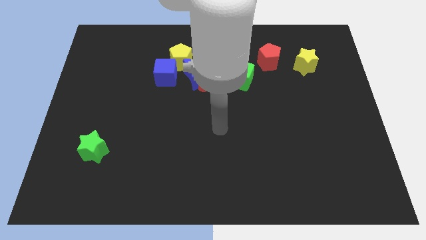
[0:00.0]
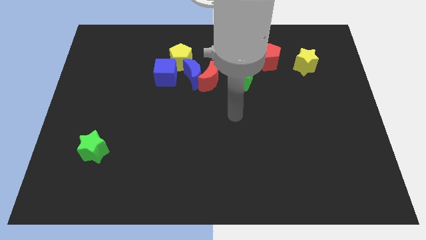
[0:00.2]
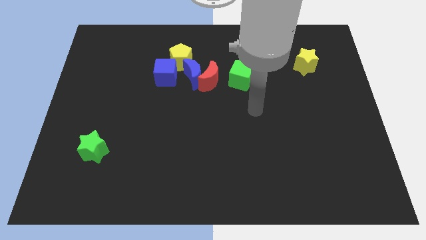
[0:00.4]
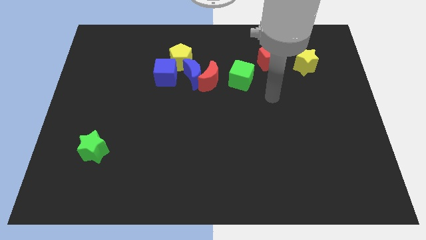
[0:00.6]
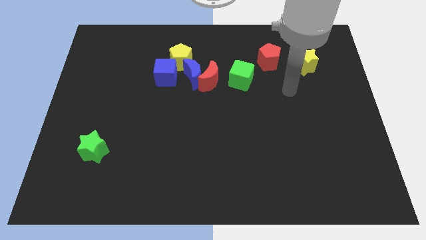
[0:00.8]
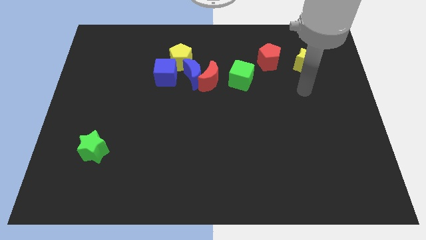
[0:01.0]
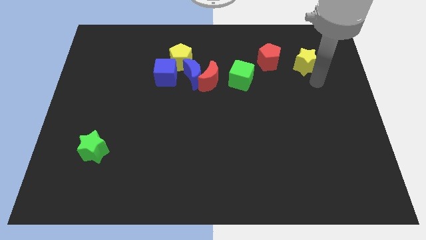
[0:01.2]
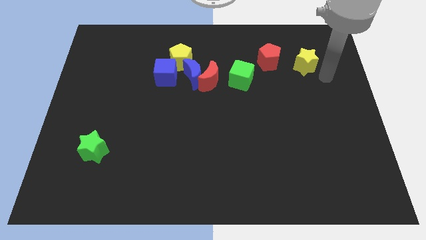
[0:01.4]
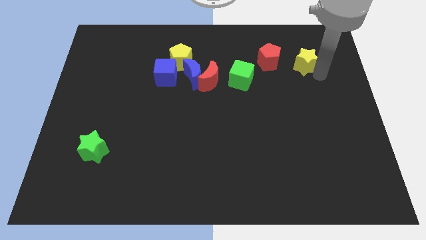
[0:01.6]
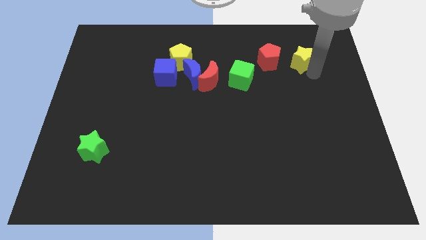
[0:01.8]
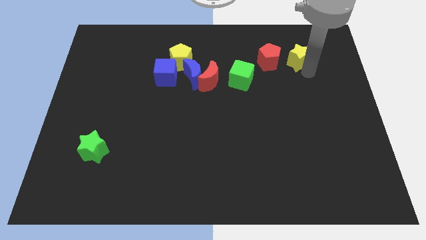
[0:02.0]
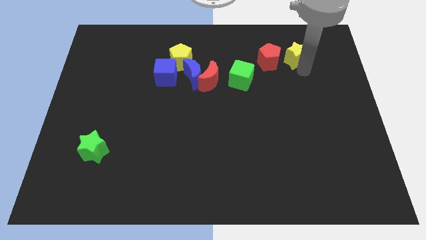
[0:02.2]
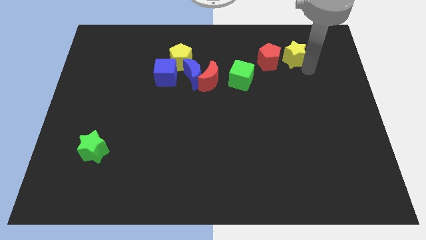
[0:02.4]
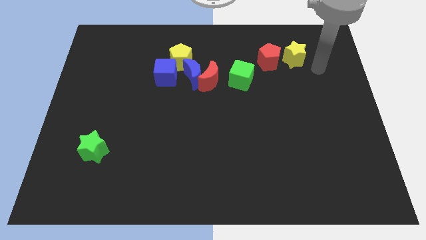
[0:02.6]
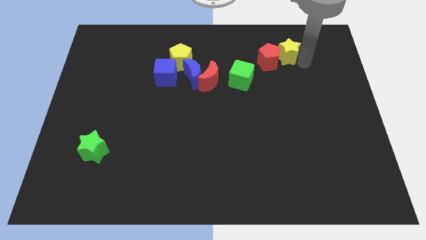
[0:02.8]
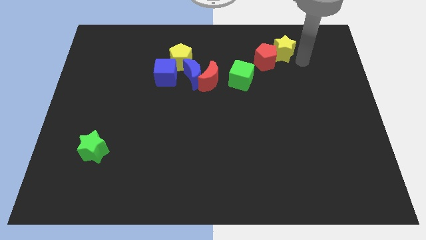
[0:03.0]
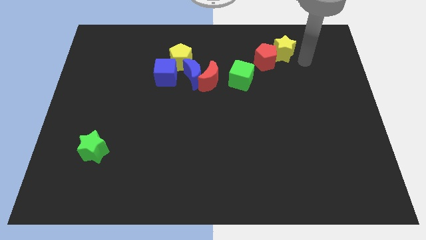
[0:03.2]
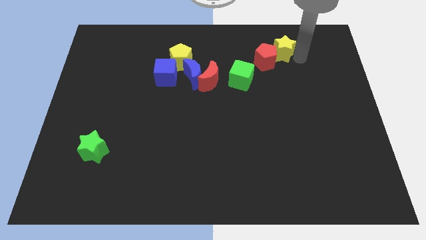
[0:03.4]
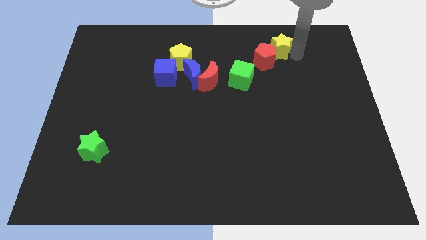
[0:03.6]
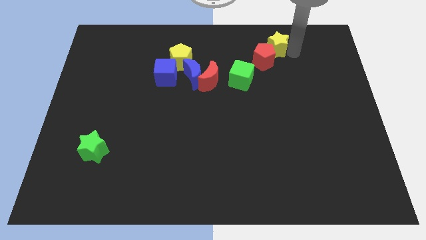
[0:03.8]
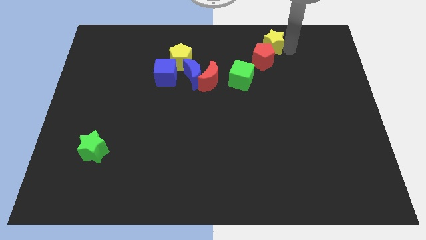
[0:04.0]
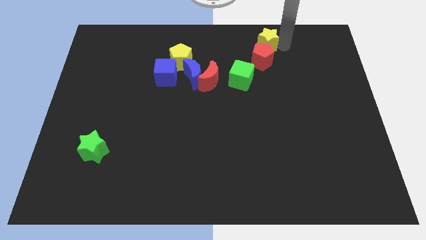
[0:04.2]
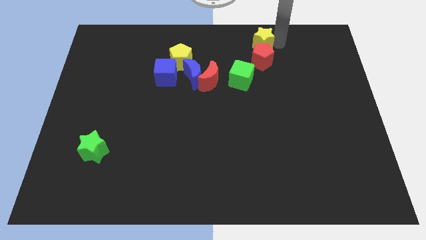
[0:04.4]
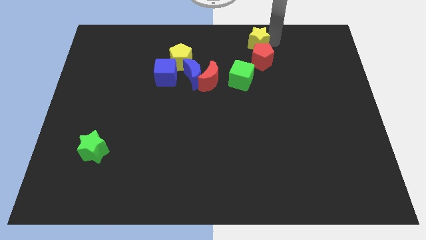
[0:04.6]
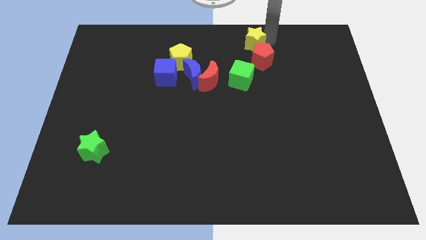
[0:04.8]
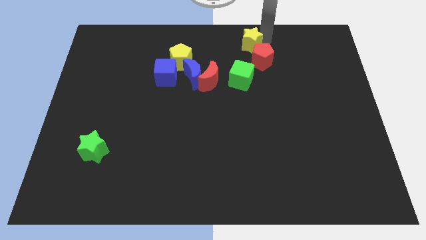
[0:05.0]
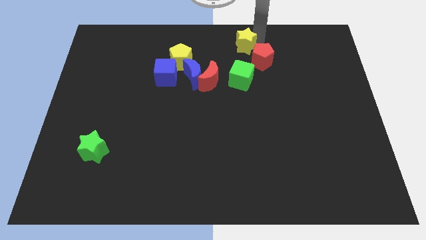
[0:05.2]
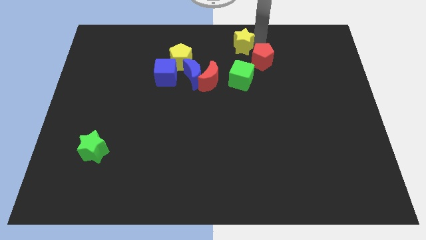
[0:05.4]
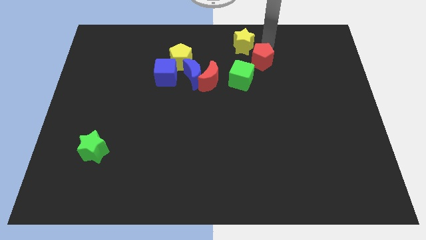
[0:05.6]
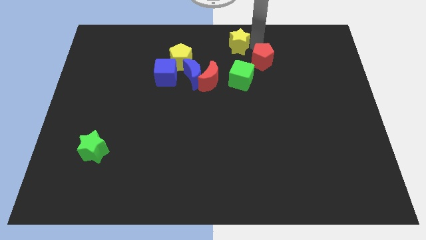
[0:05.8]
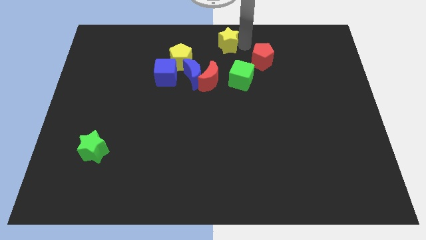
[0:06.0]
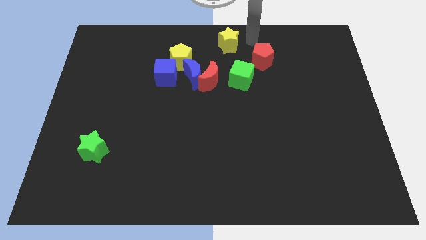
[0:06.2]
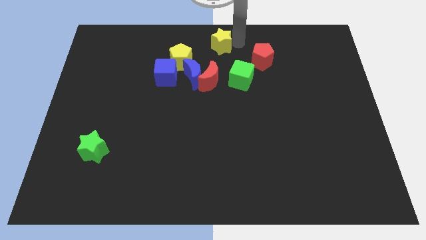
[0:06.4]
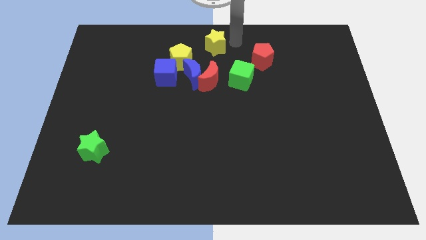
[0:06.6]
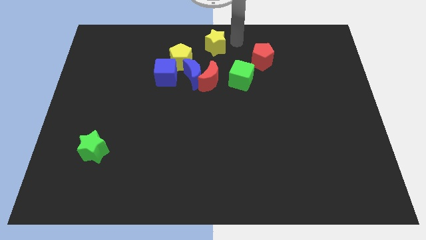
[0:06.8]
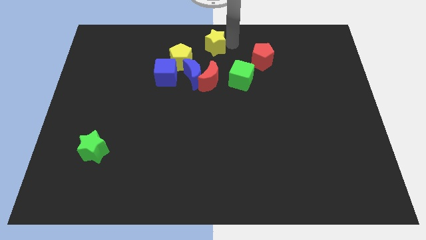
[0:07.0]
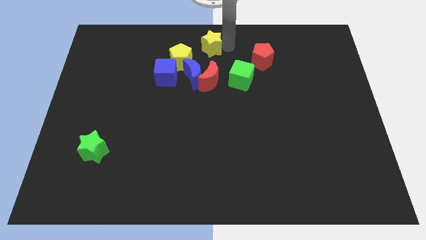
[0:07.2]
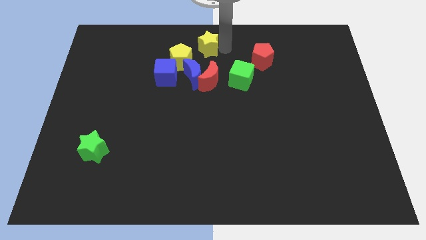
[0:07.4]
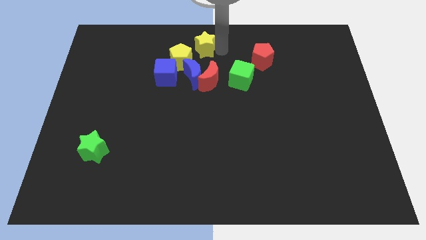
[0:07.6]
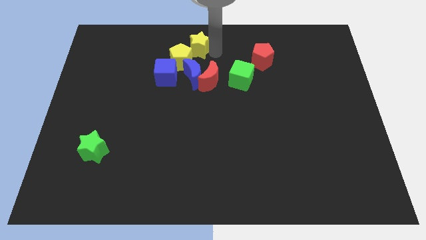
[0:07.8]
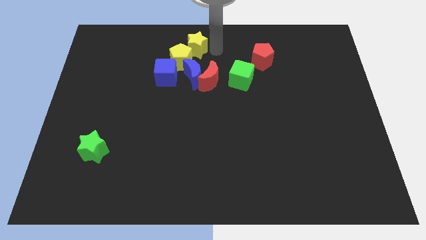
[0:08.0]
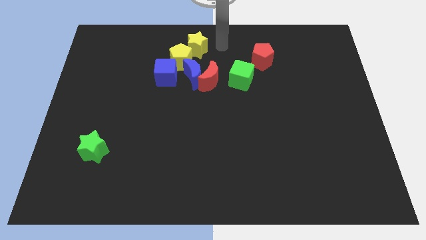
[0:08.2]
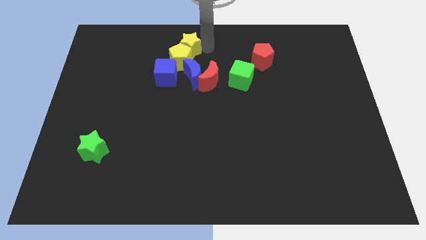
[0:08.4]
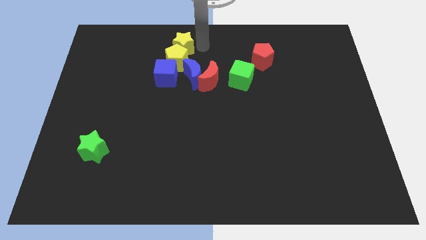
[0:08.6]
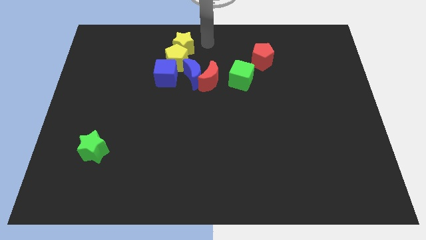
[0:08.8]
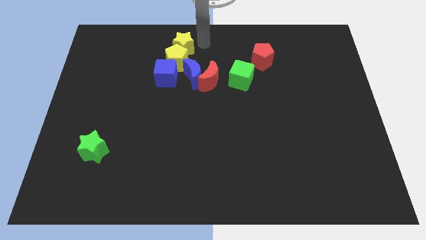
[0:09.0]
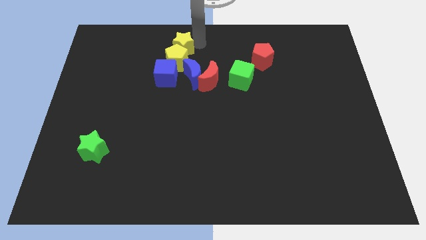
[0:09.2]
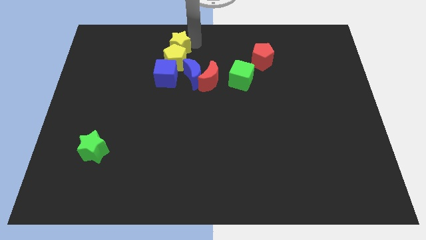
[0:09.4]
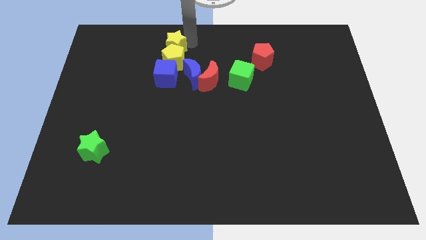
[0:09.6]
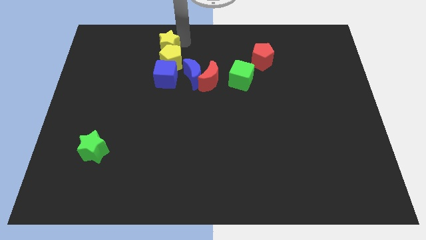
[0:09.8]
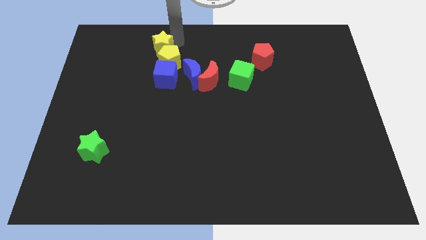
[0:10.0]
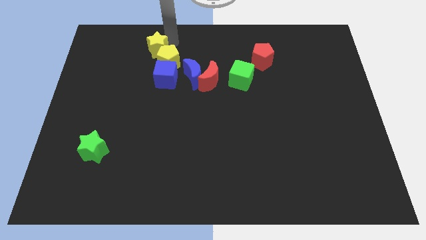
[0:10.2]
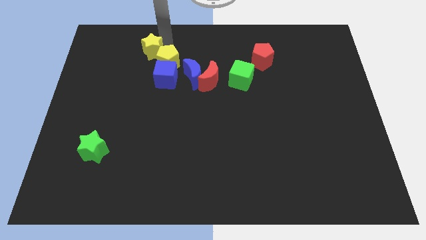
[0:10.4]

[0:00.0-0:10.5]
slide the yellow star to the top left side of the blue cube

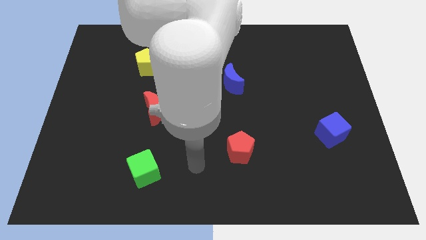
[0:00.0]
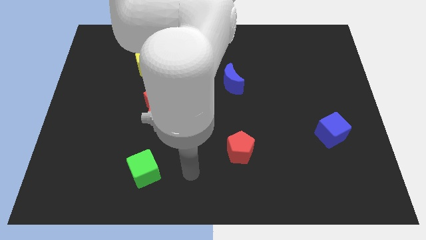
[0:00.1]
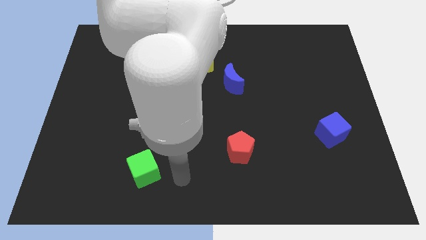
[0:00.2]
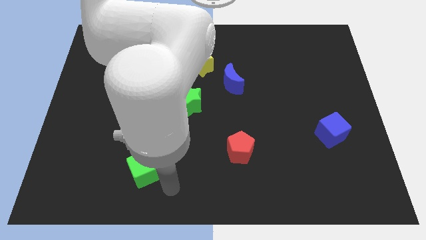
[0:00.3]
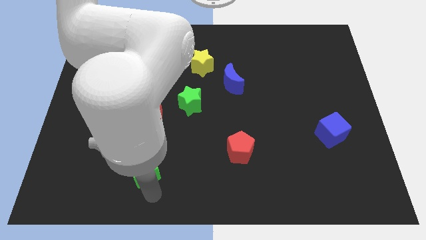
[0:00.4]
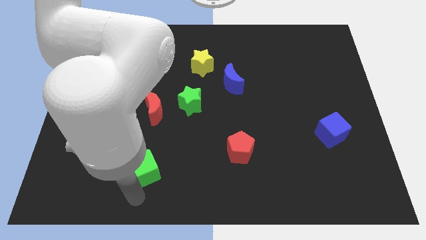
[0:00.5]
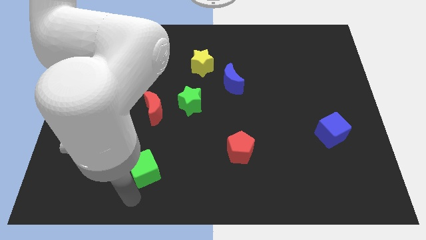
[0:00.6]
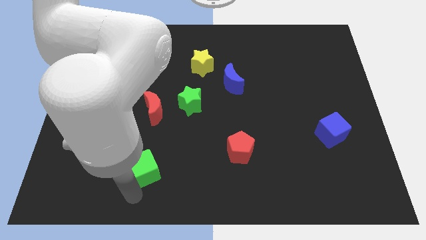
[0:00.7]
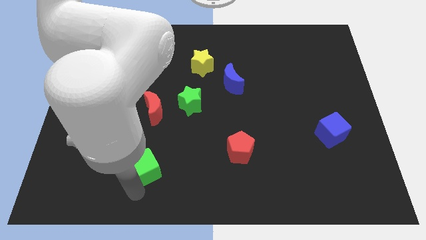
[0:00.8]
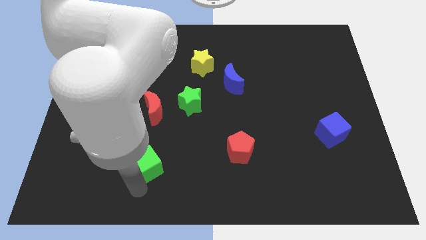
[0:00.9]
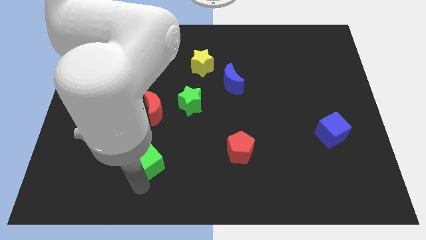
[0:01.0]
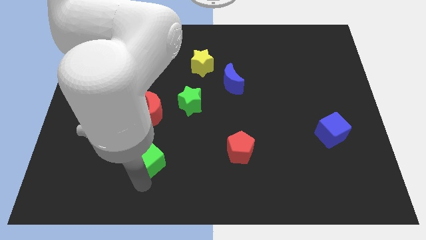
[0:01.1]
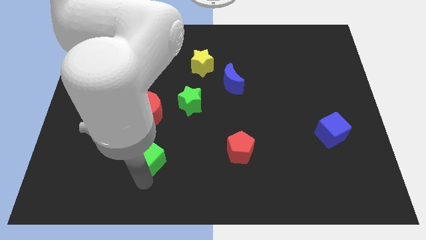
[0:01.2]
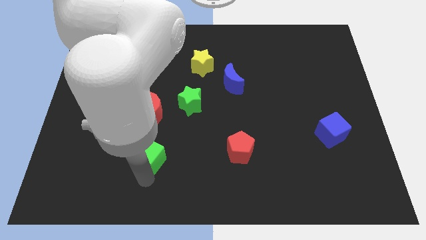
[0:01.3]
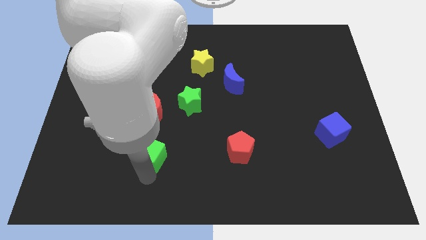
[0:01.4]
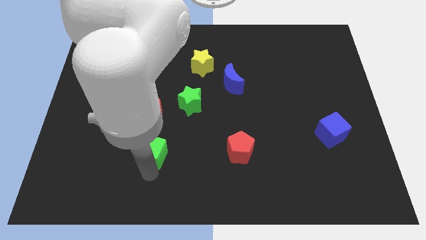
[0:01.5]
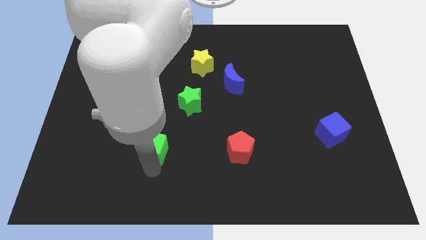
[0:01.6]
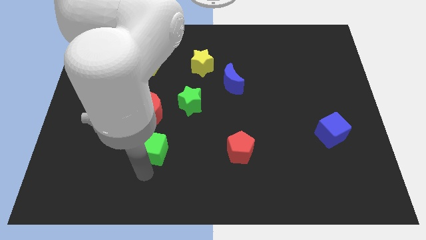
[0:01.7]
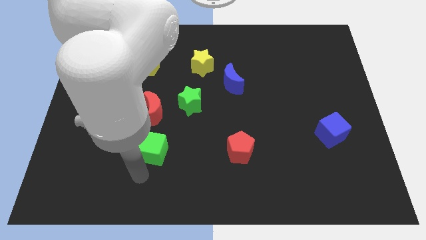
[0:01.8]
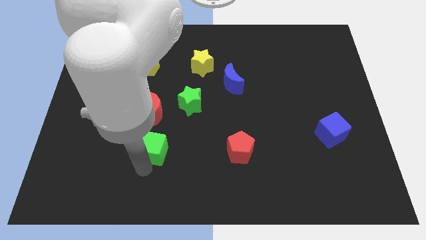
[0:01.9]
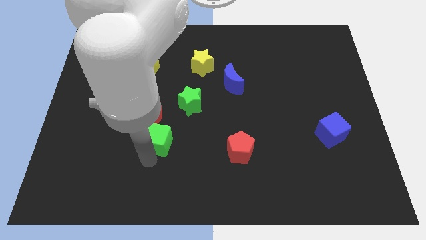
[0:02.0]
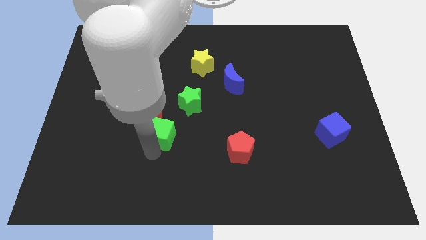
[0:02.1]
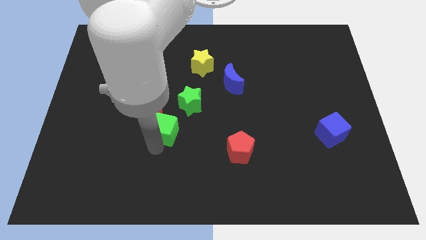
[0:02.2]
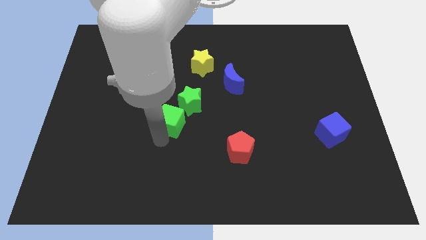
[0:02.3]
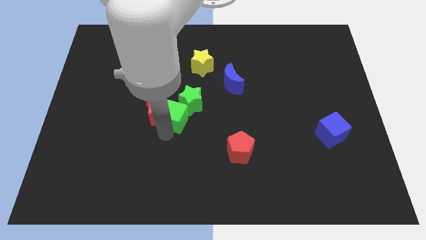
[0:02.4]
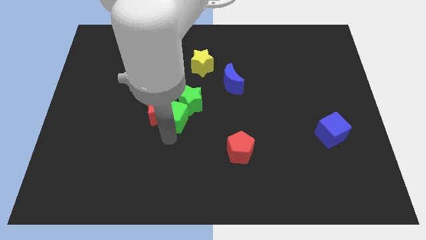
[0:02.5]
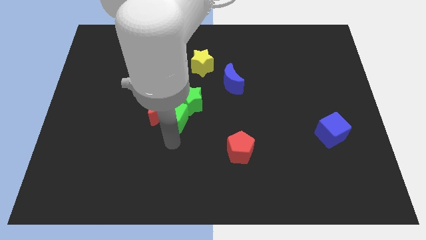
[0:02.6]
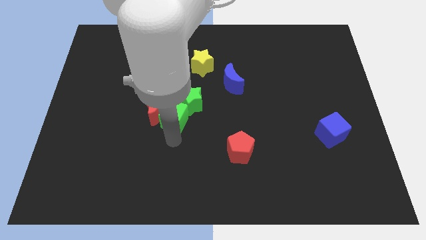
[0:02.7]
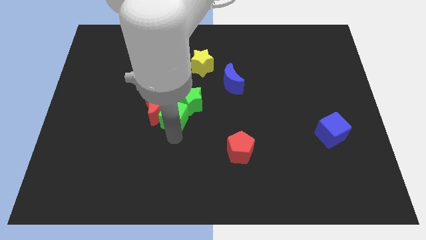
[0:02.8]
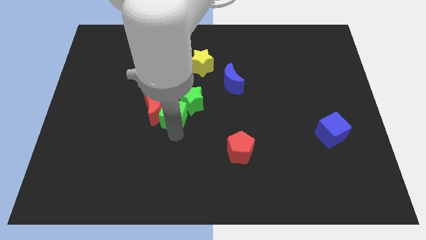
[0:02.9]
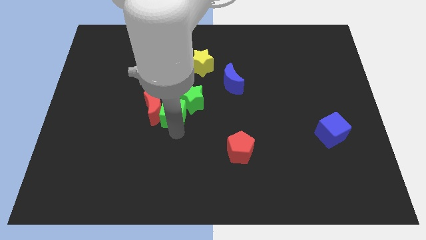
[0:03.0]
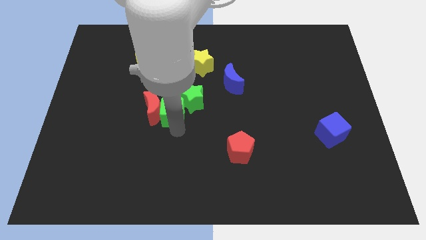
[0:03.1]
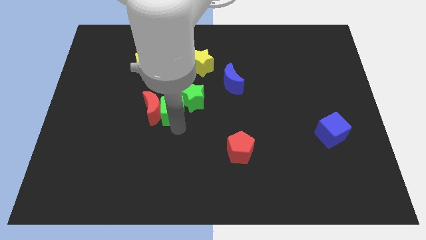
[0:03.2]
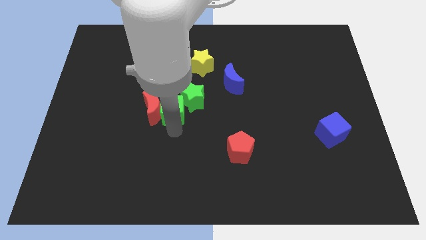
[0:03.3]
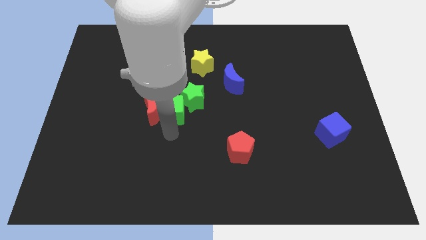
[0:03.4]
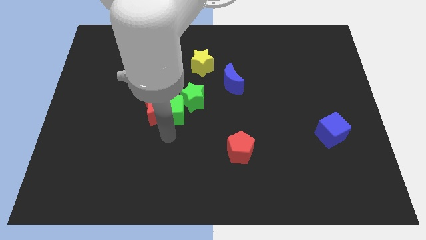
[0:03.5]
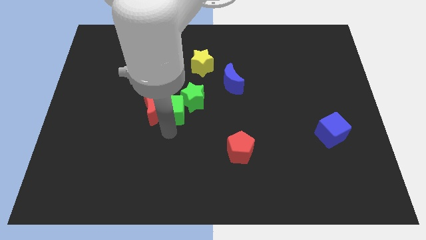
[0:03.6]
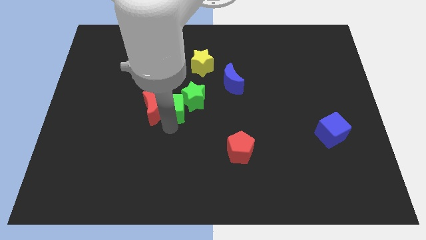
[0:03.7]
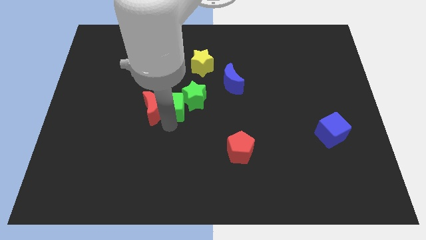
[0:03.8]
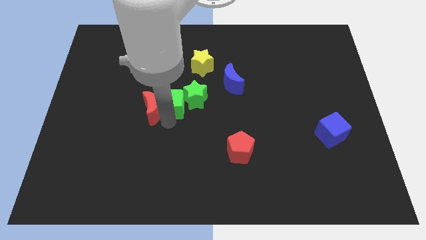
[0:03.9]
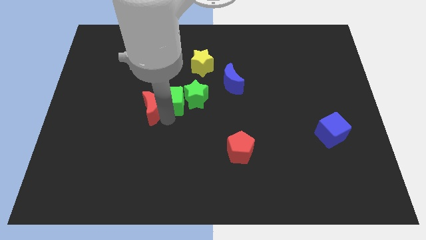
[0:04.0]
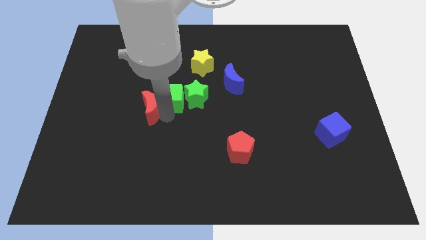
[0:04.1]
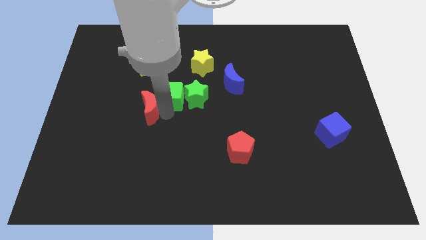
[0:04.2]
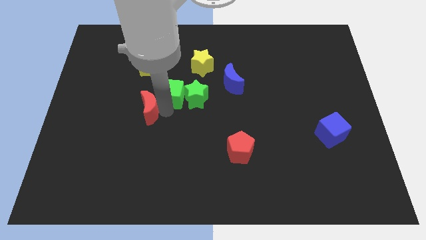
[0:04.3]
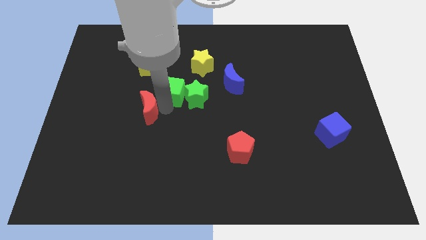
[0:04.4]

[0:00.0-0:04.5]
put the green cube left of the blue moon
